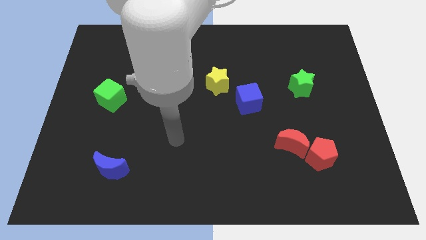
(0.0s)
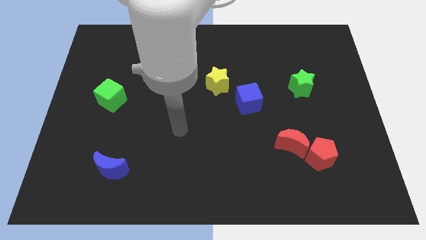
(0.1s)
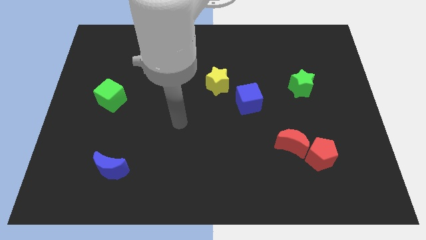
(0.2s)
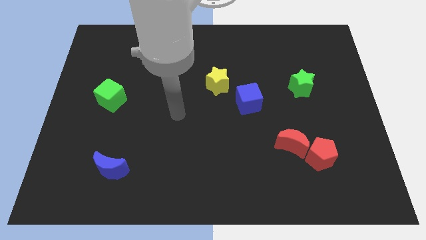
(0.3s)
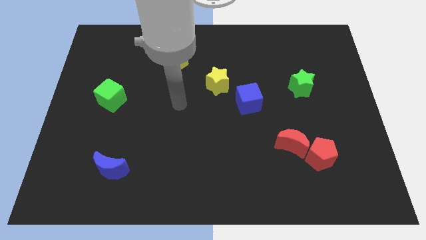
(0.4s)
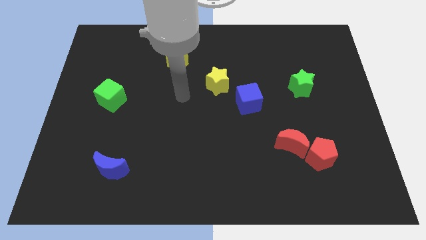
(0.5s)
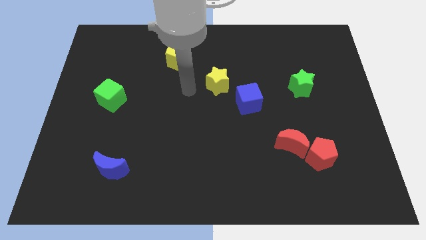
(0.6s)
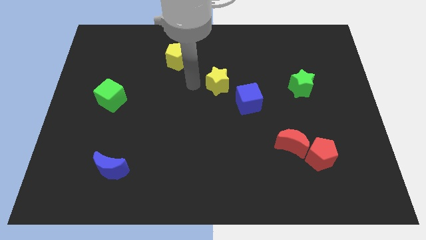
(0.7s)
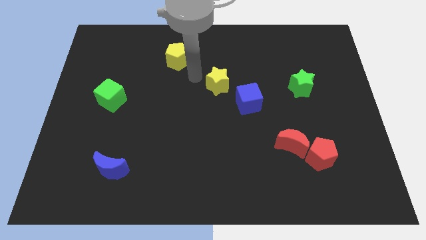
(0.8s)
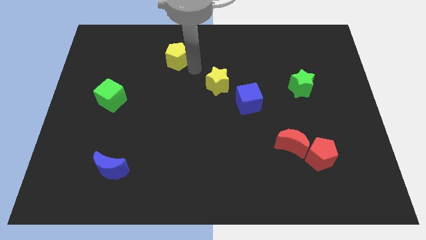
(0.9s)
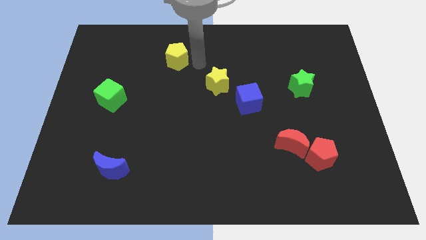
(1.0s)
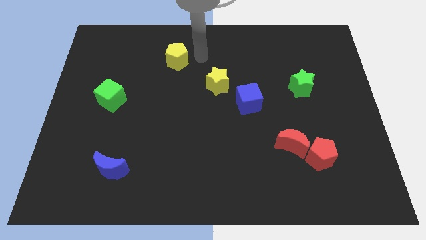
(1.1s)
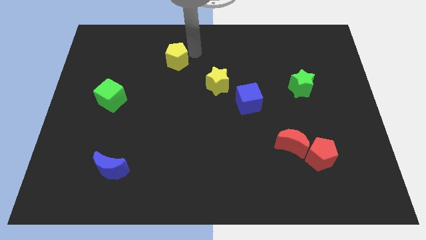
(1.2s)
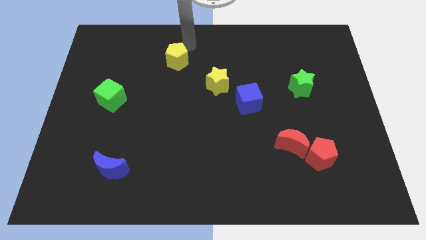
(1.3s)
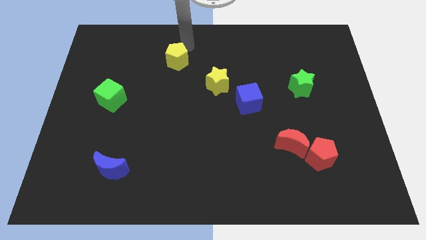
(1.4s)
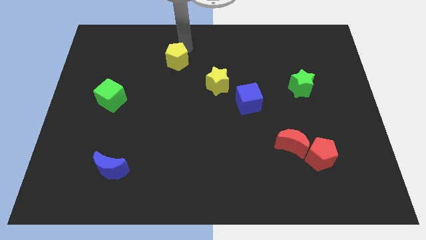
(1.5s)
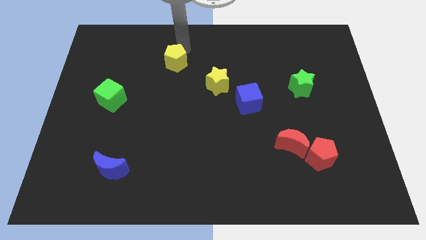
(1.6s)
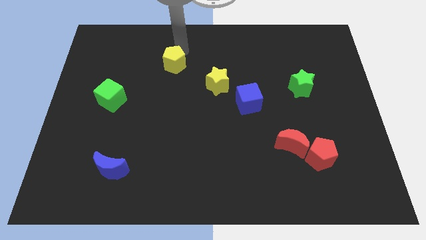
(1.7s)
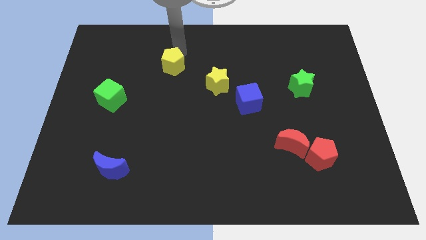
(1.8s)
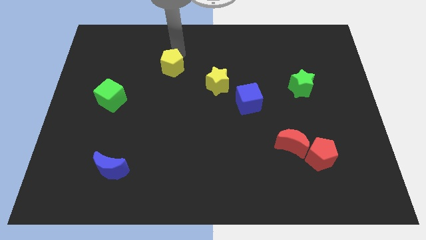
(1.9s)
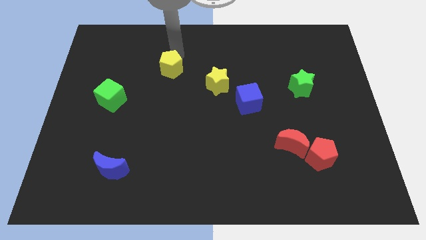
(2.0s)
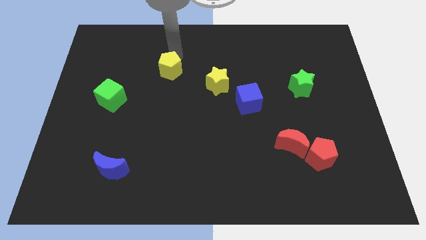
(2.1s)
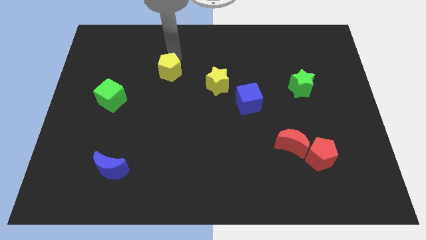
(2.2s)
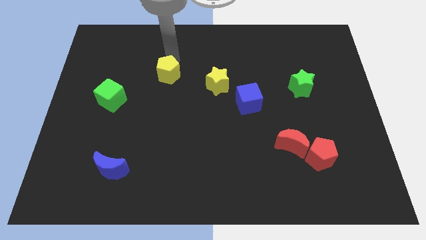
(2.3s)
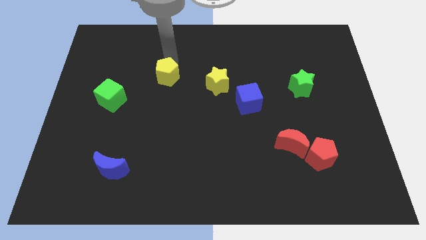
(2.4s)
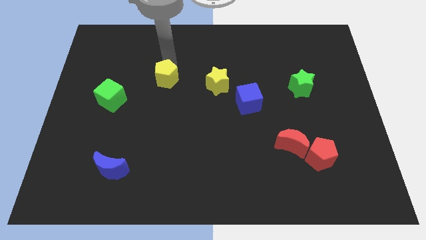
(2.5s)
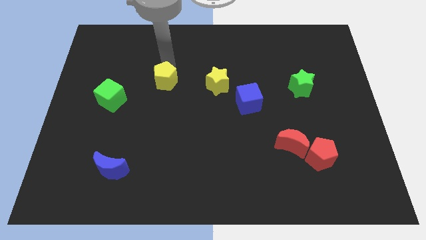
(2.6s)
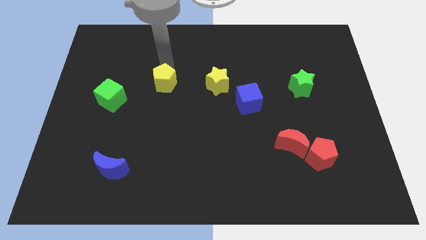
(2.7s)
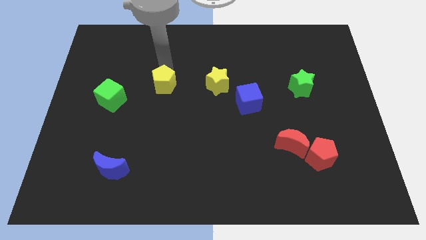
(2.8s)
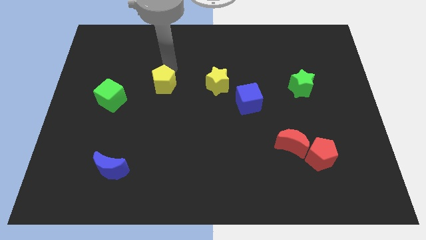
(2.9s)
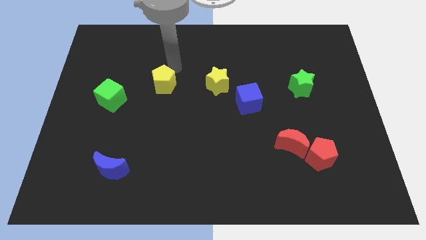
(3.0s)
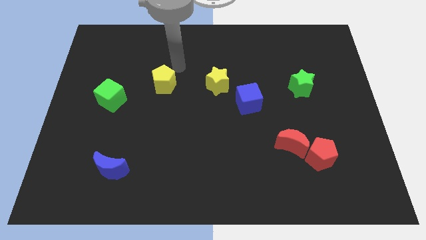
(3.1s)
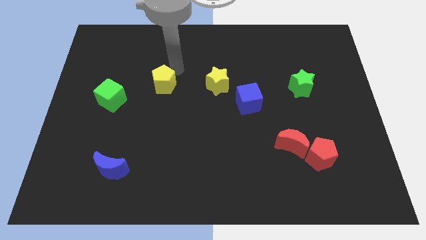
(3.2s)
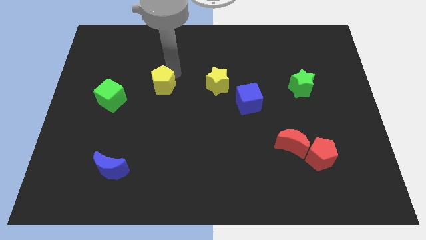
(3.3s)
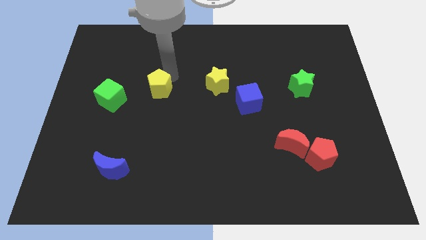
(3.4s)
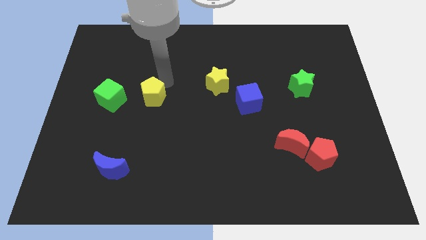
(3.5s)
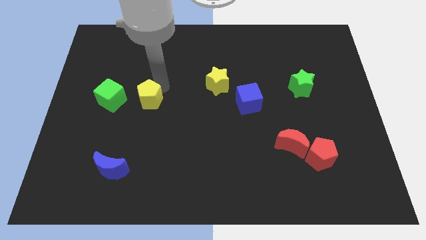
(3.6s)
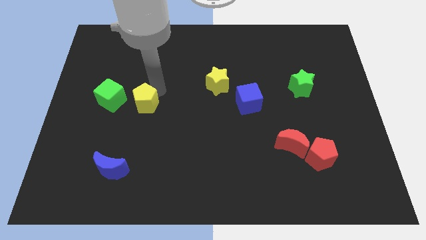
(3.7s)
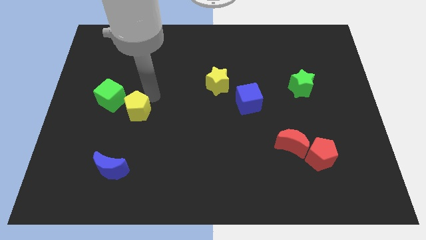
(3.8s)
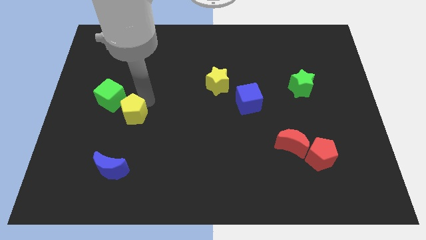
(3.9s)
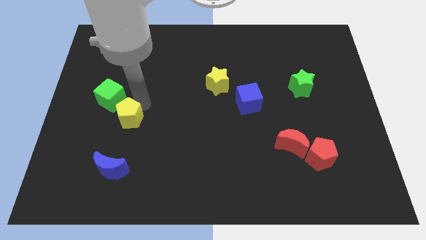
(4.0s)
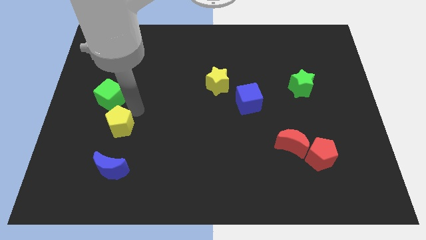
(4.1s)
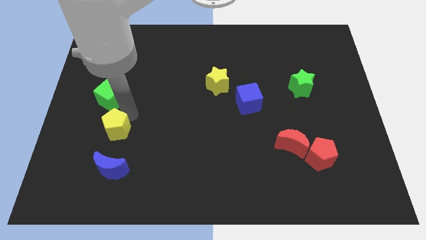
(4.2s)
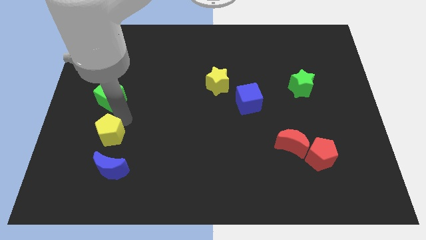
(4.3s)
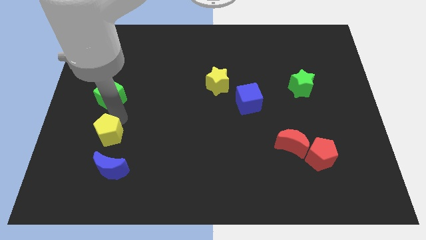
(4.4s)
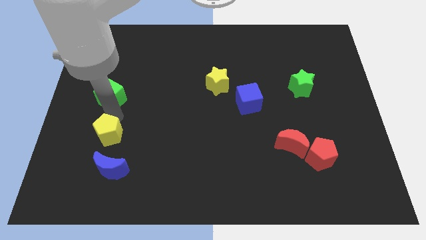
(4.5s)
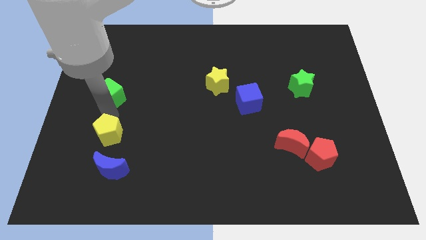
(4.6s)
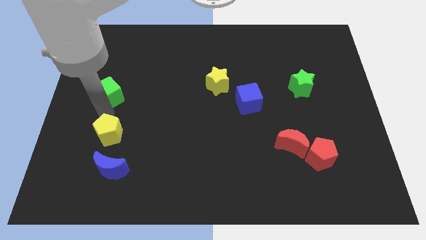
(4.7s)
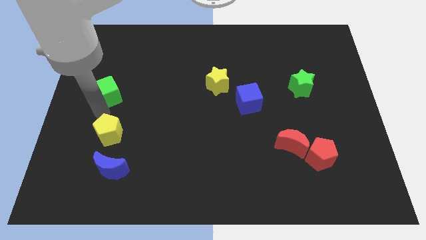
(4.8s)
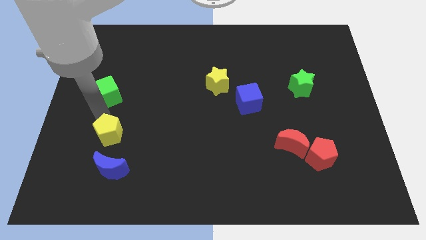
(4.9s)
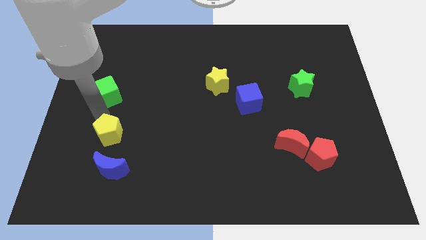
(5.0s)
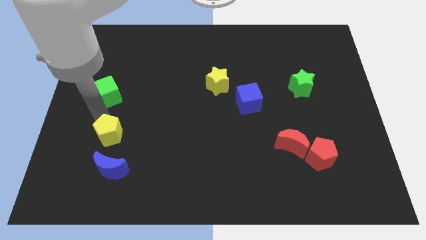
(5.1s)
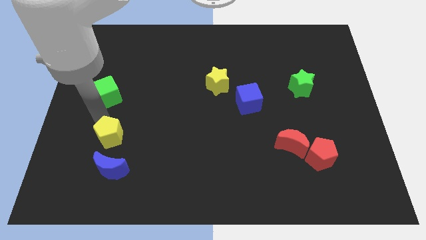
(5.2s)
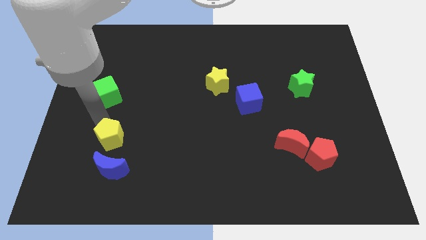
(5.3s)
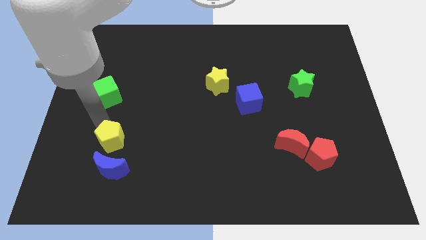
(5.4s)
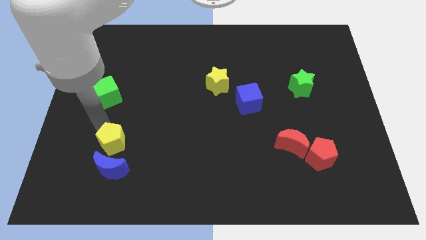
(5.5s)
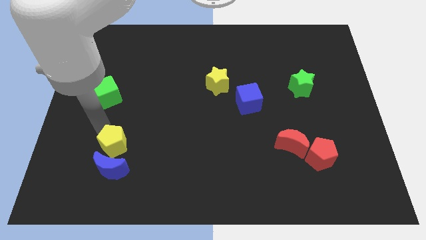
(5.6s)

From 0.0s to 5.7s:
move the yellow pentagon close to the blue moon
